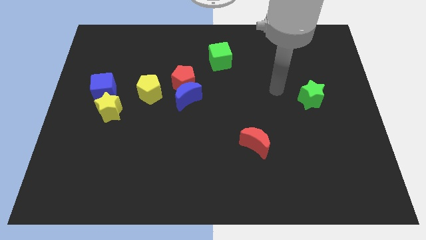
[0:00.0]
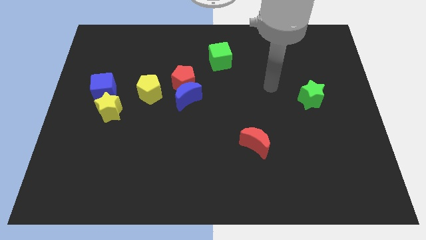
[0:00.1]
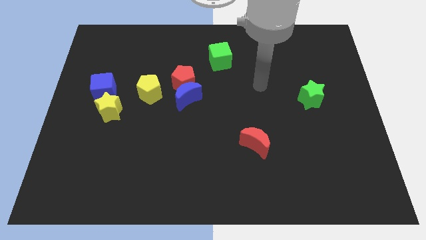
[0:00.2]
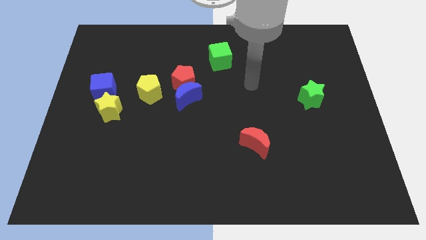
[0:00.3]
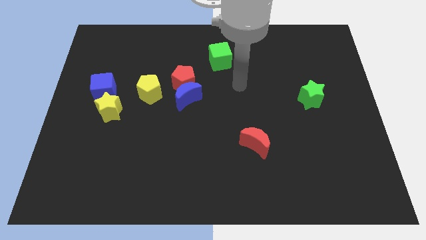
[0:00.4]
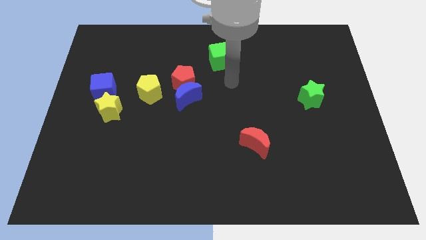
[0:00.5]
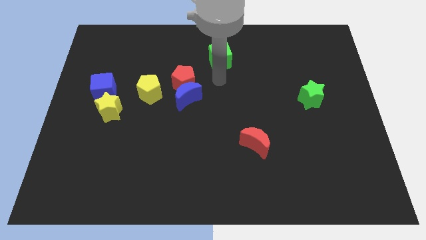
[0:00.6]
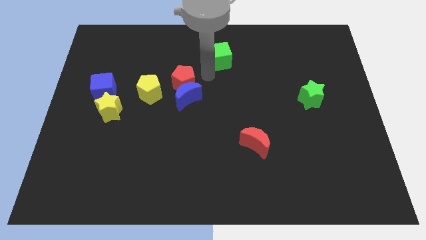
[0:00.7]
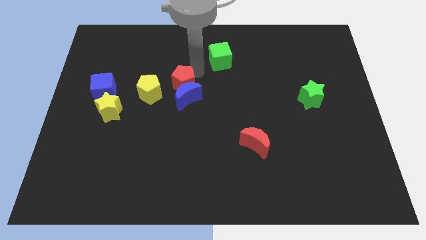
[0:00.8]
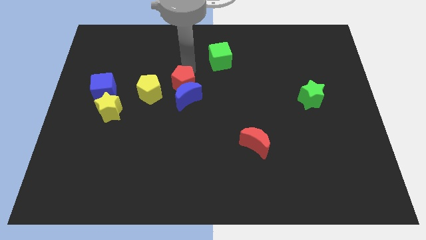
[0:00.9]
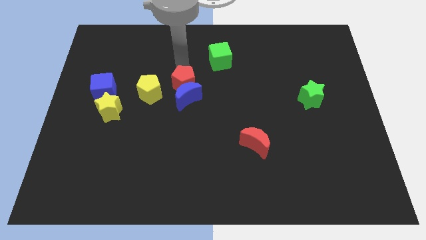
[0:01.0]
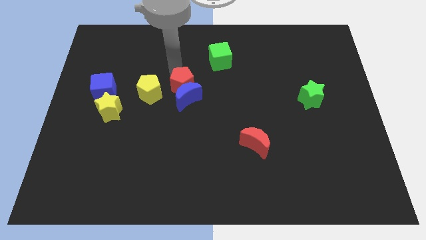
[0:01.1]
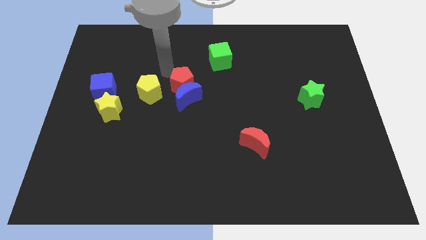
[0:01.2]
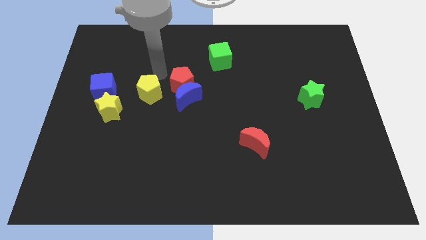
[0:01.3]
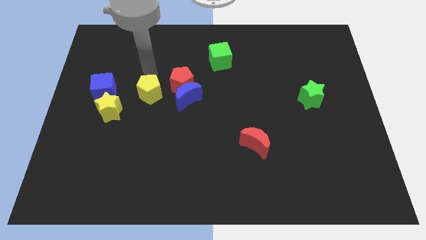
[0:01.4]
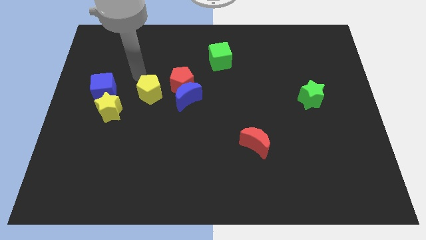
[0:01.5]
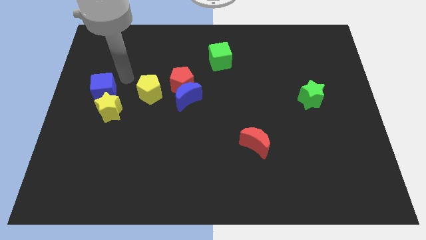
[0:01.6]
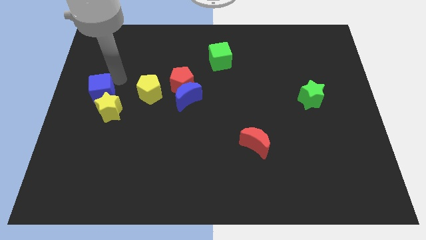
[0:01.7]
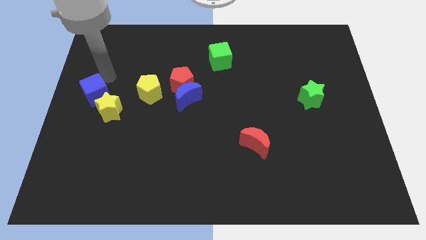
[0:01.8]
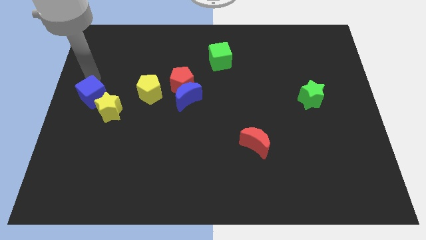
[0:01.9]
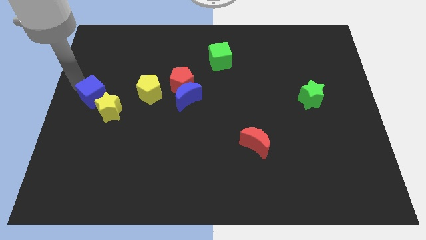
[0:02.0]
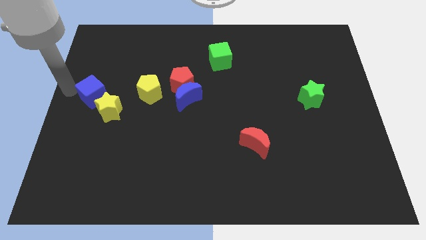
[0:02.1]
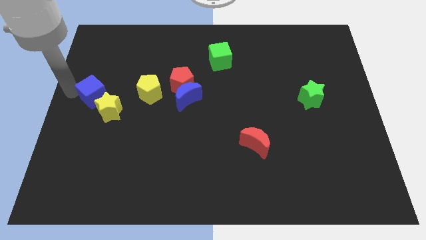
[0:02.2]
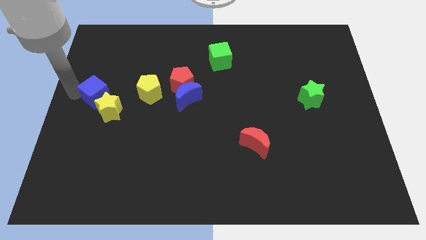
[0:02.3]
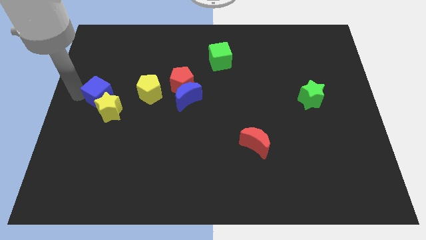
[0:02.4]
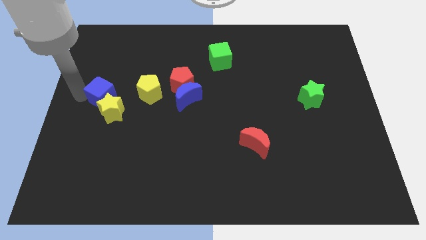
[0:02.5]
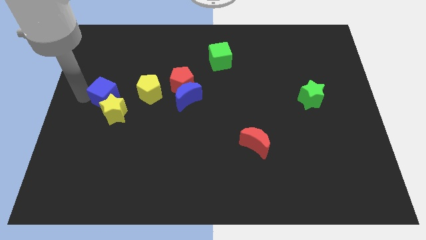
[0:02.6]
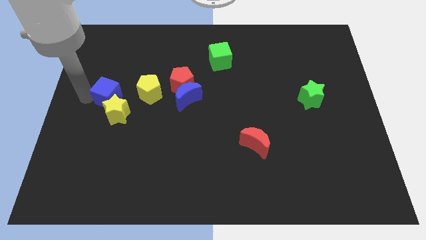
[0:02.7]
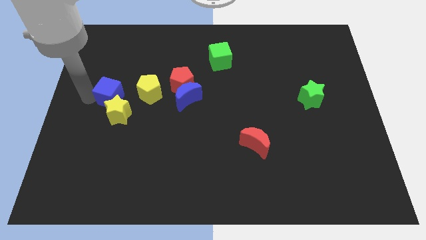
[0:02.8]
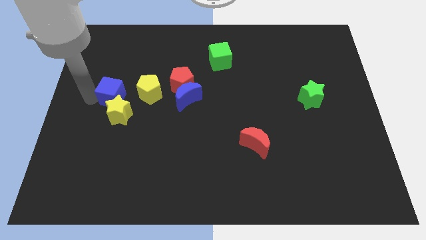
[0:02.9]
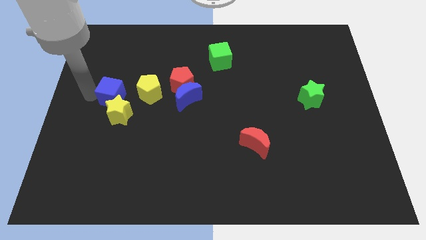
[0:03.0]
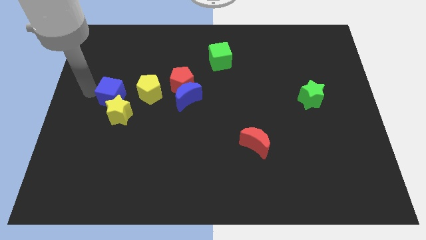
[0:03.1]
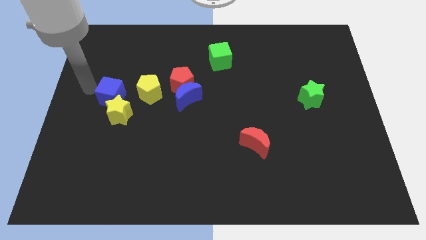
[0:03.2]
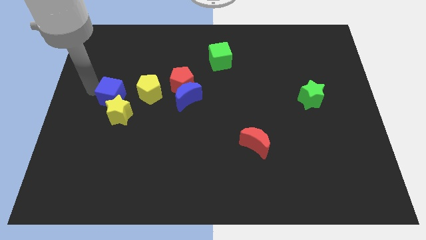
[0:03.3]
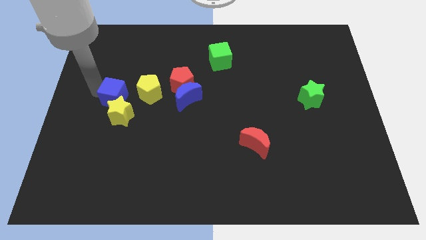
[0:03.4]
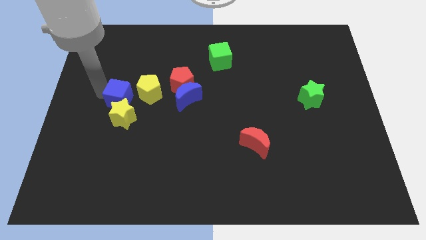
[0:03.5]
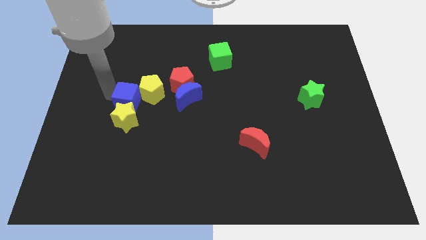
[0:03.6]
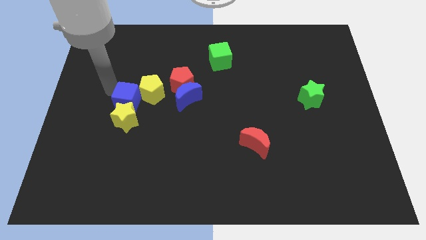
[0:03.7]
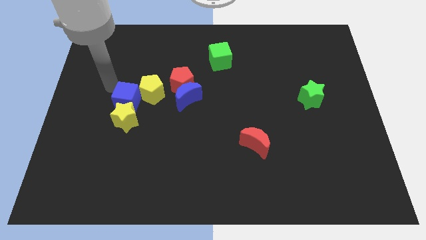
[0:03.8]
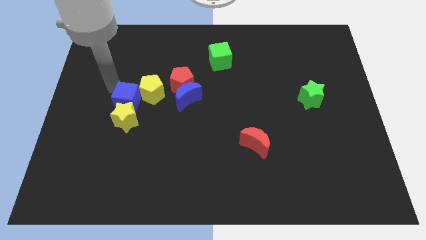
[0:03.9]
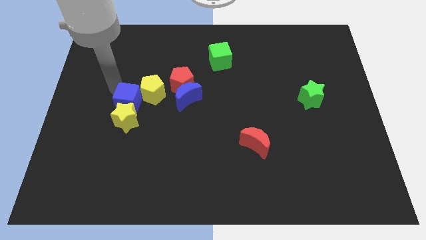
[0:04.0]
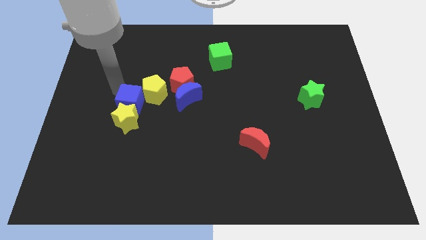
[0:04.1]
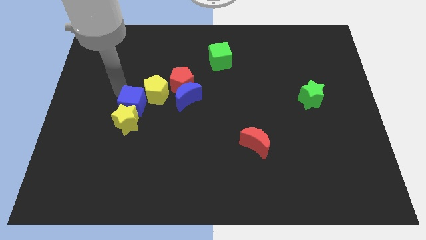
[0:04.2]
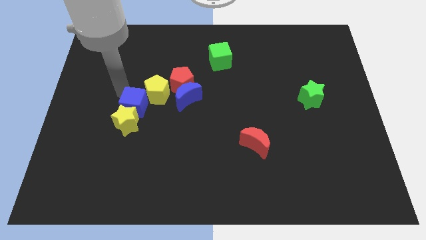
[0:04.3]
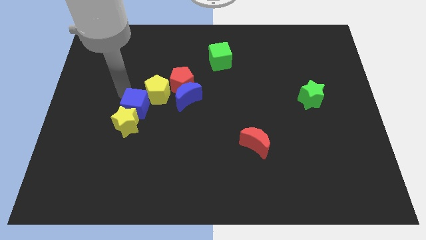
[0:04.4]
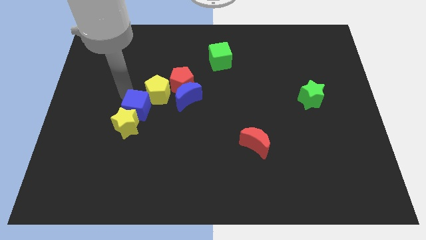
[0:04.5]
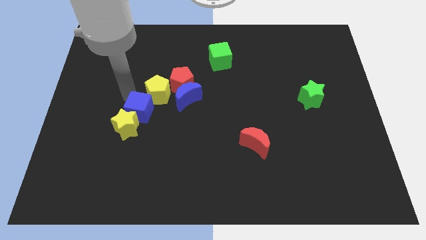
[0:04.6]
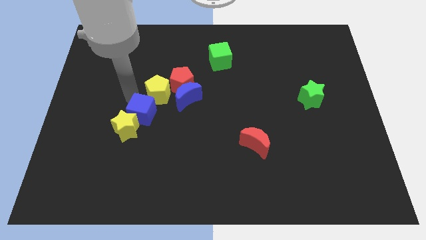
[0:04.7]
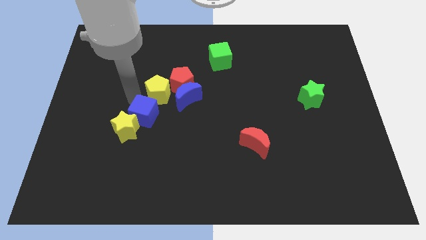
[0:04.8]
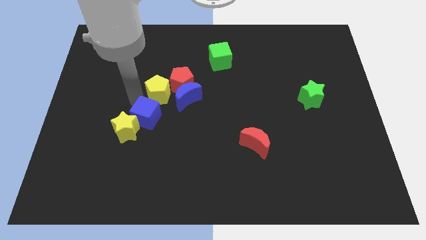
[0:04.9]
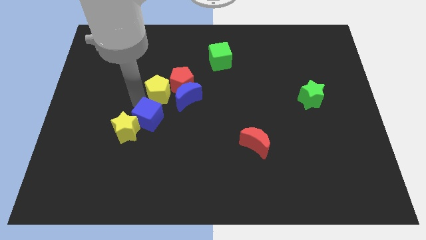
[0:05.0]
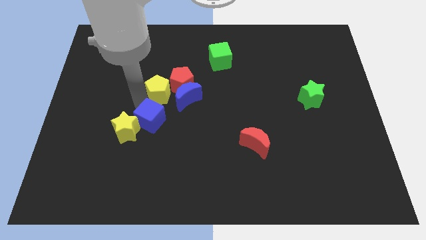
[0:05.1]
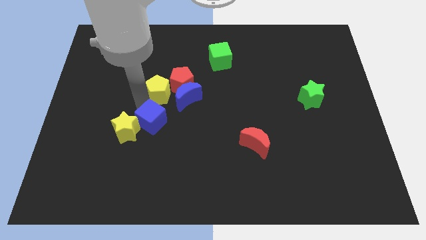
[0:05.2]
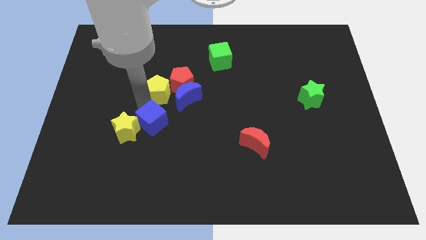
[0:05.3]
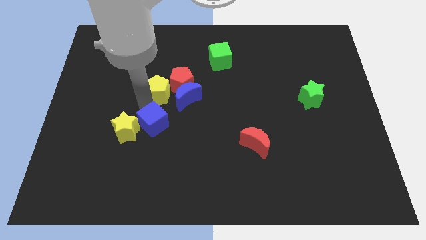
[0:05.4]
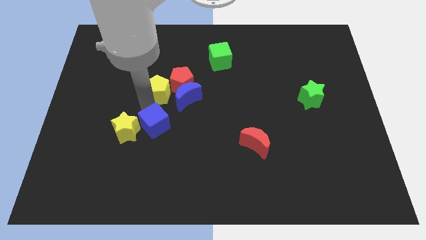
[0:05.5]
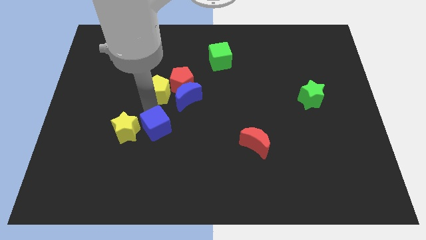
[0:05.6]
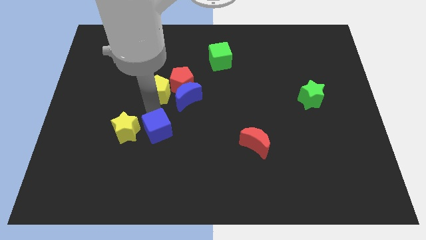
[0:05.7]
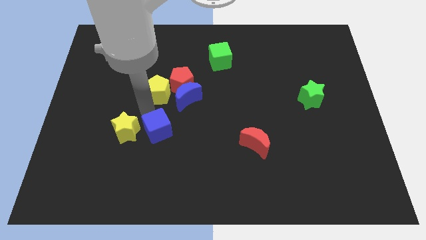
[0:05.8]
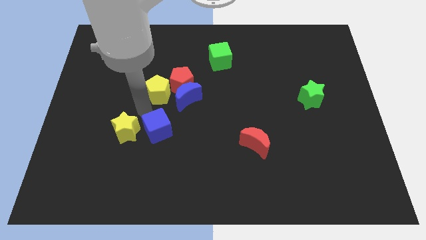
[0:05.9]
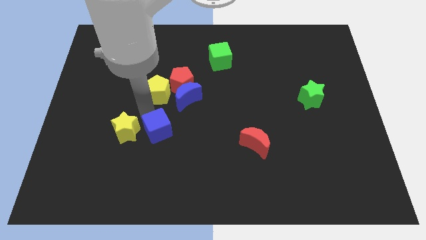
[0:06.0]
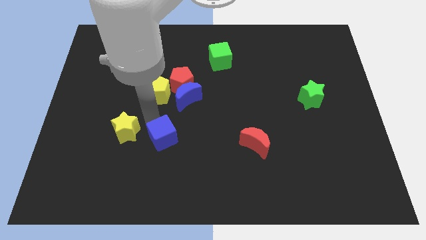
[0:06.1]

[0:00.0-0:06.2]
move the blue cube downwards and to the right

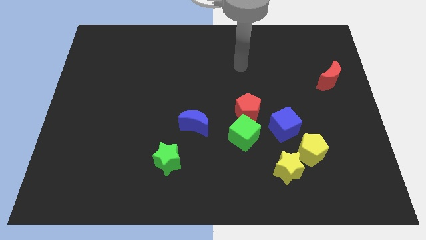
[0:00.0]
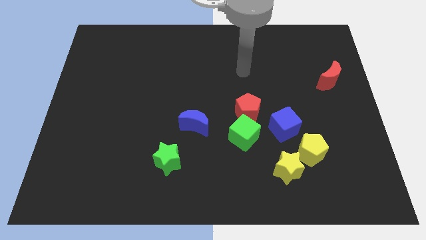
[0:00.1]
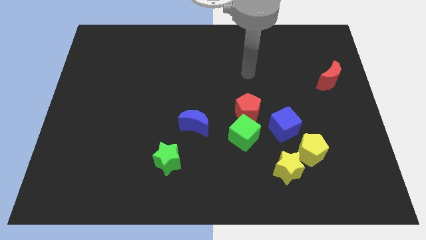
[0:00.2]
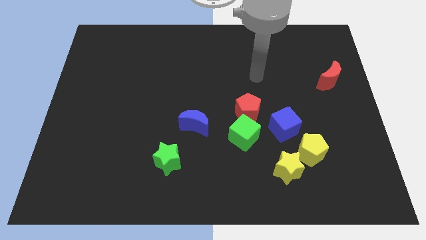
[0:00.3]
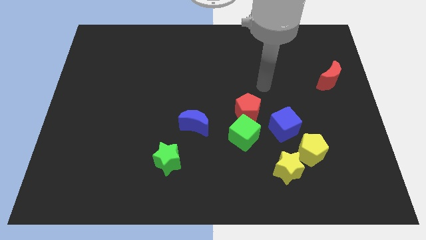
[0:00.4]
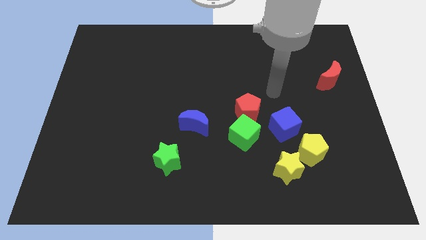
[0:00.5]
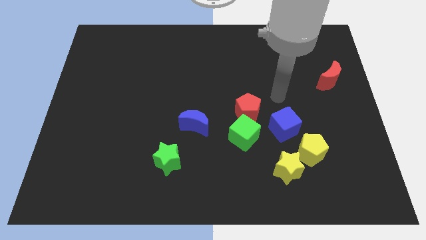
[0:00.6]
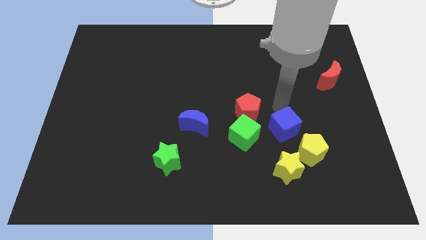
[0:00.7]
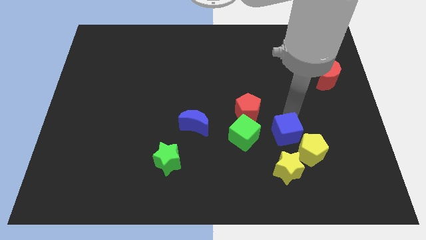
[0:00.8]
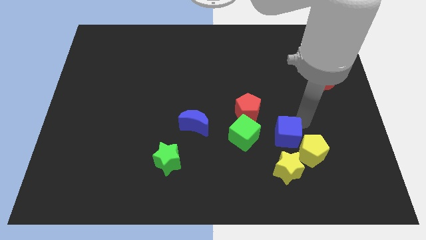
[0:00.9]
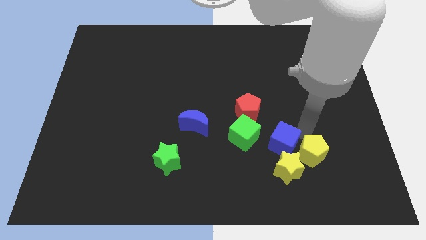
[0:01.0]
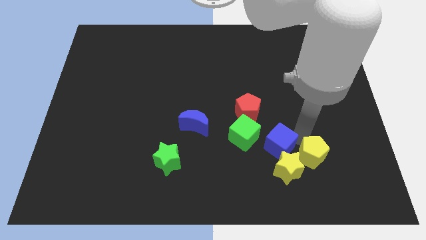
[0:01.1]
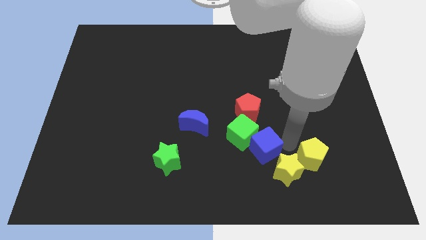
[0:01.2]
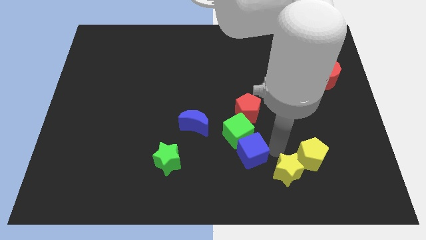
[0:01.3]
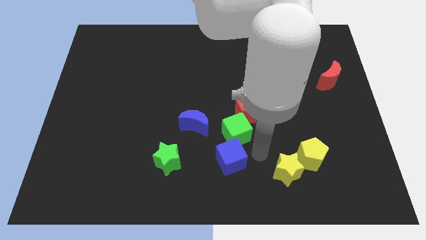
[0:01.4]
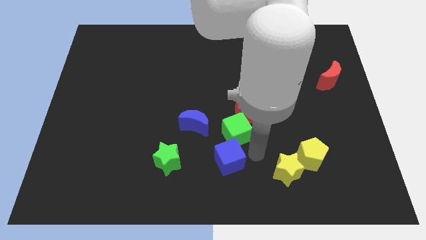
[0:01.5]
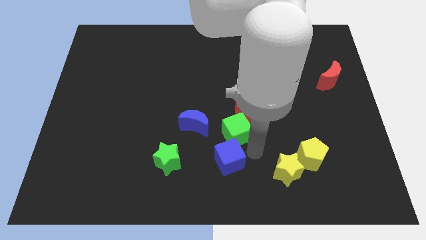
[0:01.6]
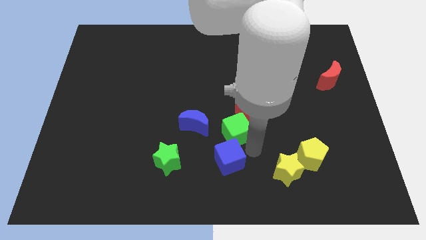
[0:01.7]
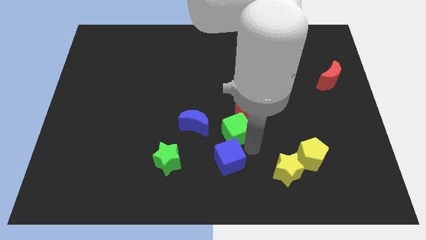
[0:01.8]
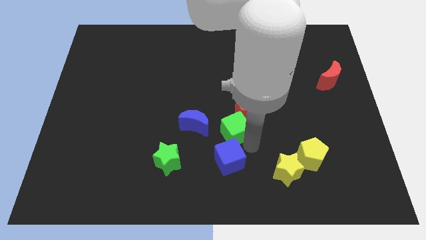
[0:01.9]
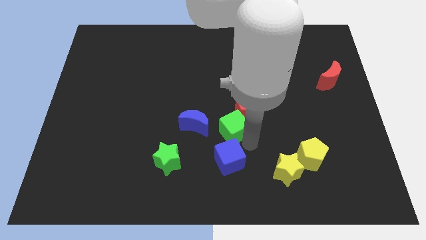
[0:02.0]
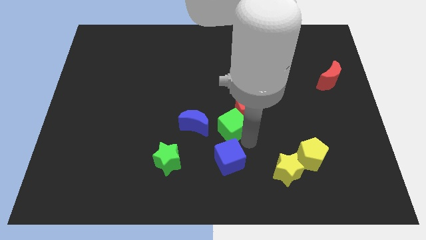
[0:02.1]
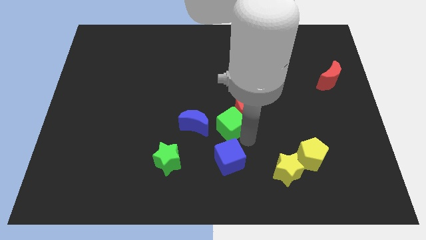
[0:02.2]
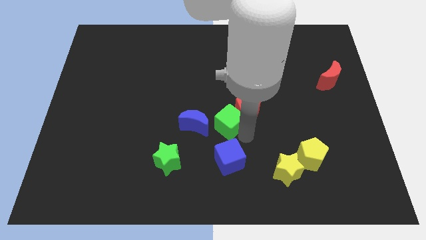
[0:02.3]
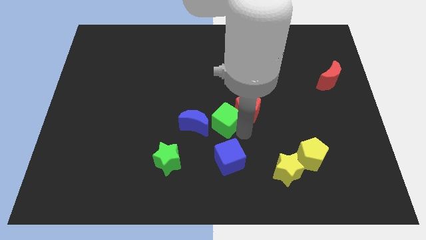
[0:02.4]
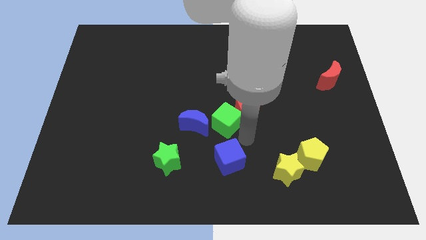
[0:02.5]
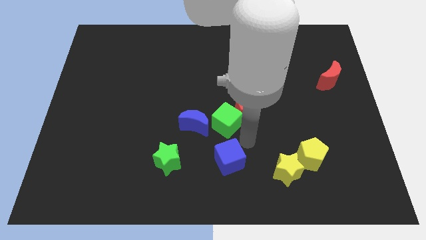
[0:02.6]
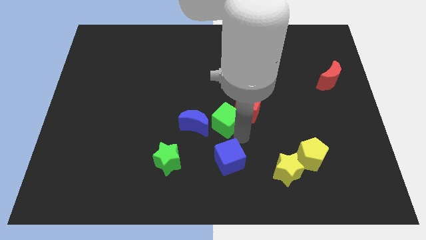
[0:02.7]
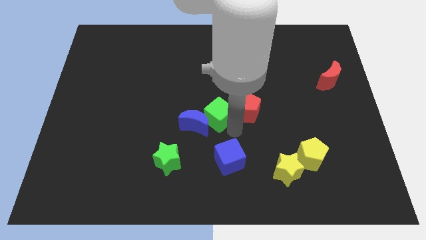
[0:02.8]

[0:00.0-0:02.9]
move the green cube up and then to the left a little
